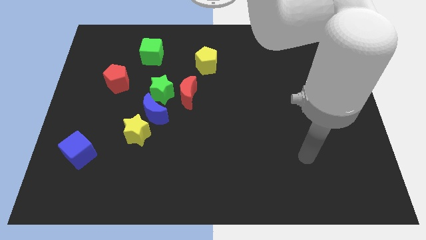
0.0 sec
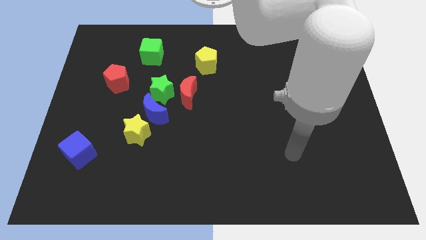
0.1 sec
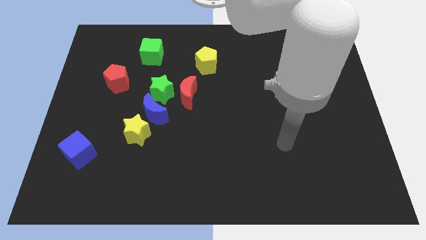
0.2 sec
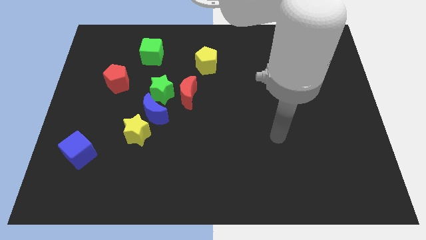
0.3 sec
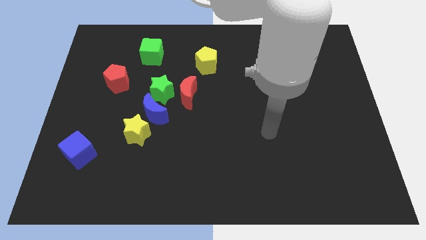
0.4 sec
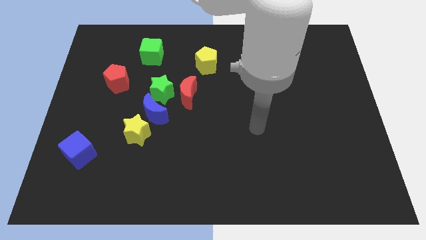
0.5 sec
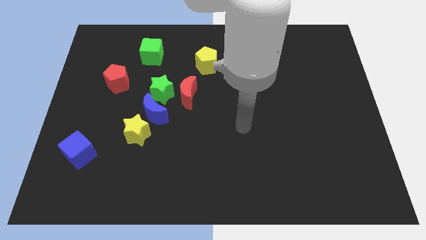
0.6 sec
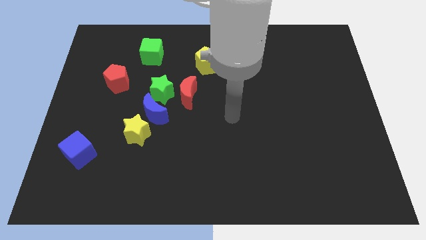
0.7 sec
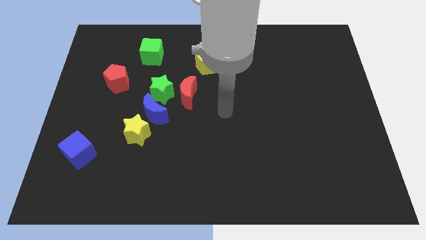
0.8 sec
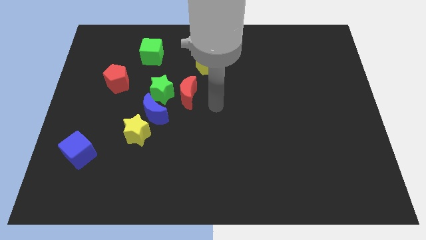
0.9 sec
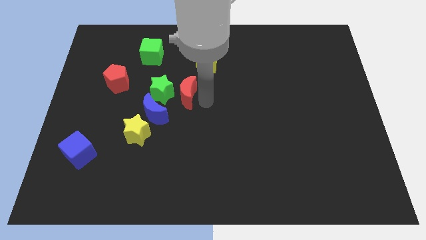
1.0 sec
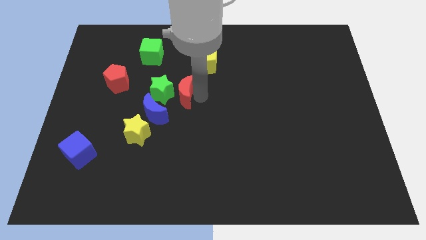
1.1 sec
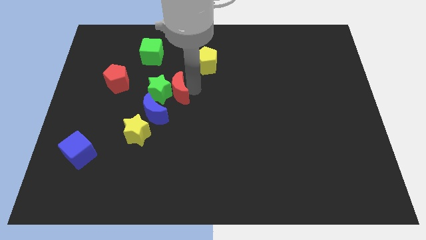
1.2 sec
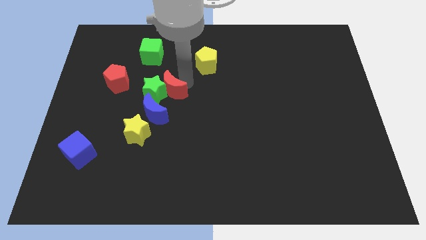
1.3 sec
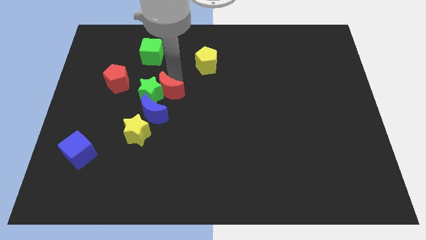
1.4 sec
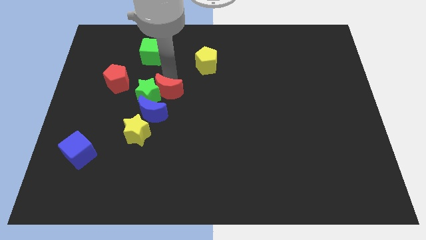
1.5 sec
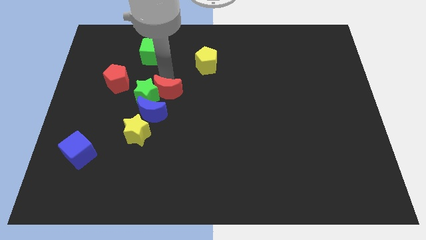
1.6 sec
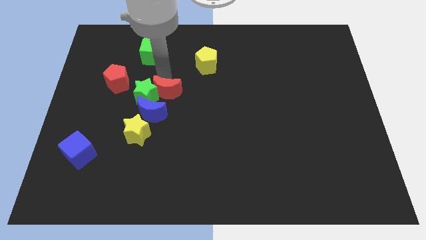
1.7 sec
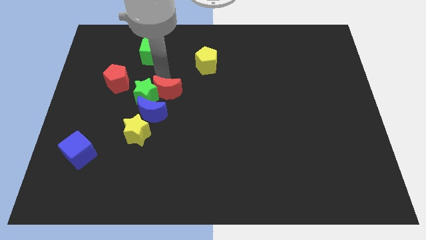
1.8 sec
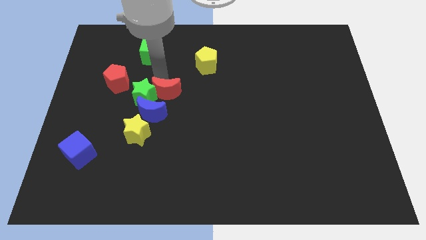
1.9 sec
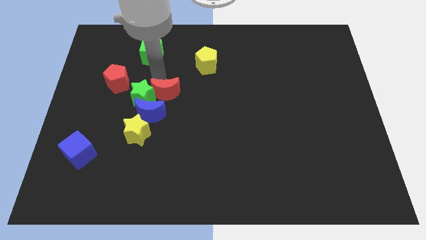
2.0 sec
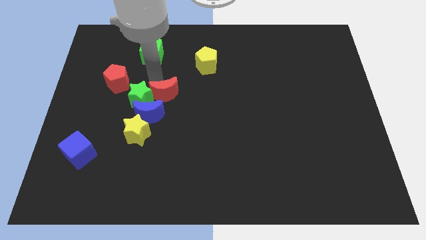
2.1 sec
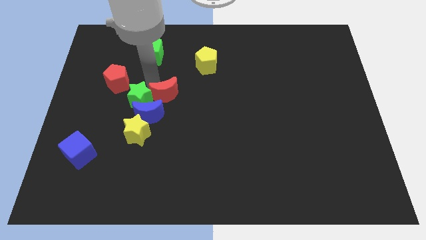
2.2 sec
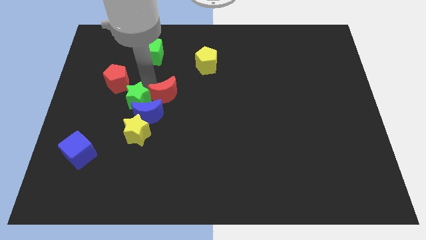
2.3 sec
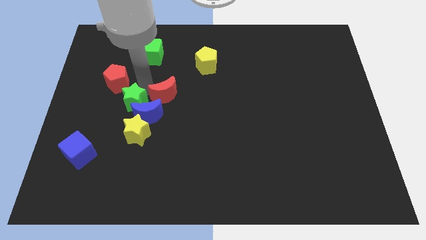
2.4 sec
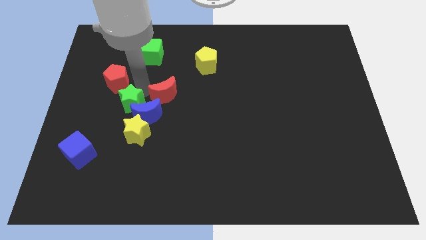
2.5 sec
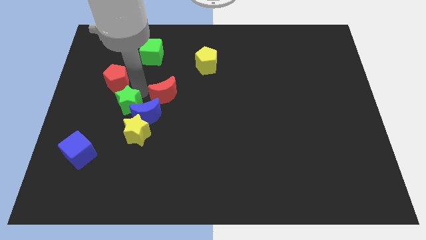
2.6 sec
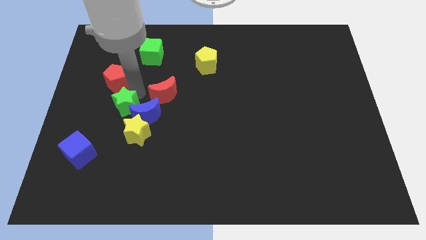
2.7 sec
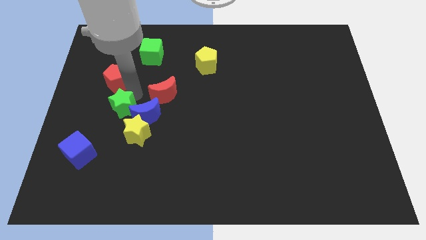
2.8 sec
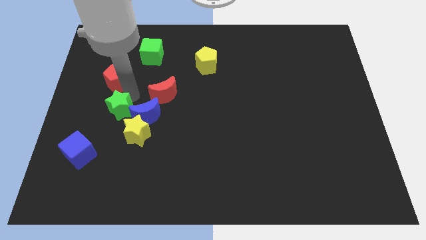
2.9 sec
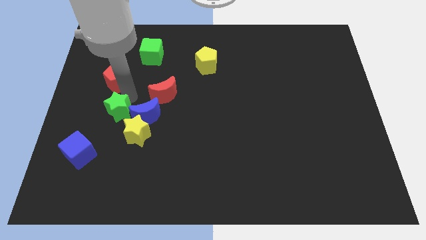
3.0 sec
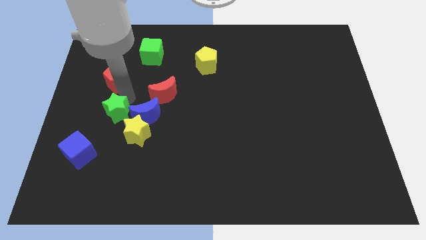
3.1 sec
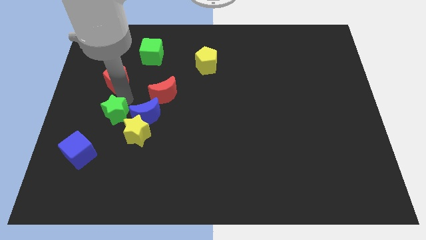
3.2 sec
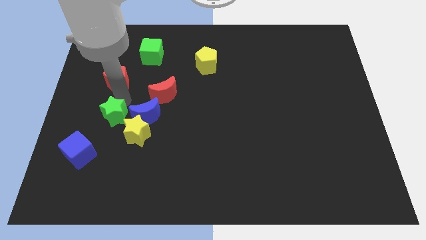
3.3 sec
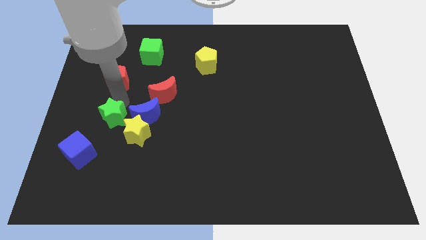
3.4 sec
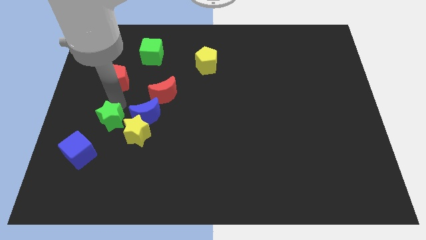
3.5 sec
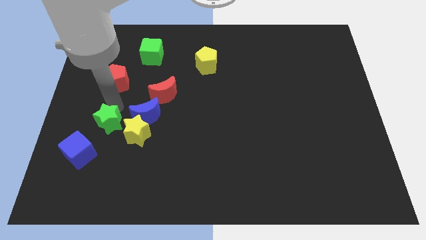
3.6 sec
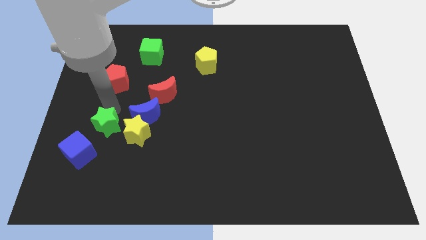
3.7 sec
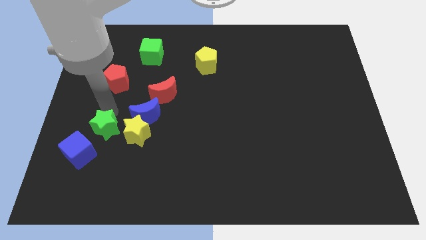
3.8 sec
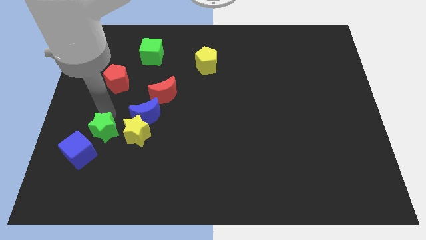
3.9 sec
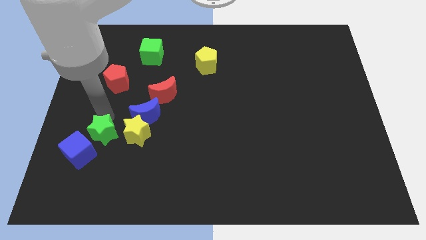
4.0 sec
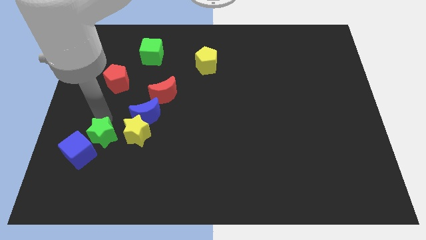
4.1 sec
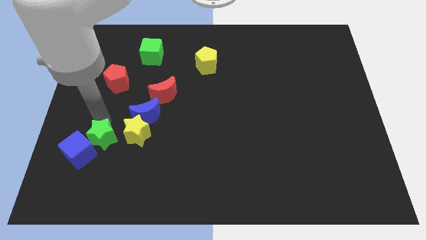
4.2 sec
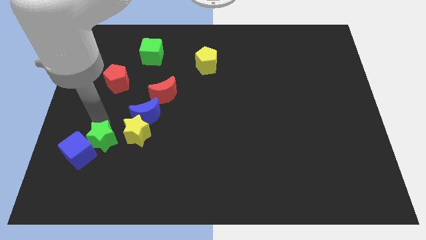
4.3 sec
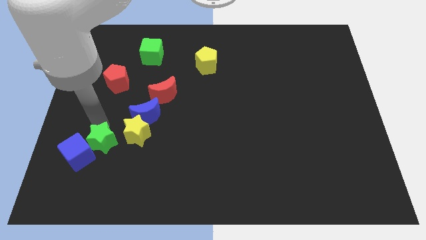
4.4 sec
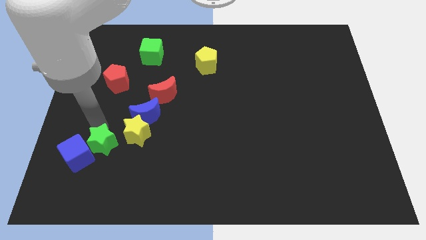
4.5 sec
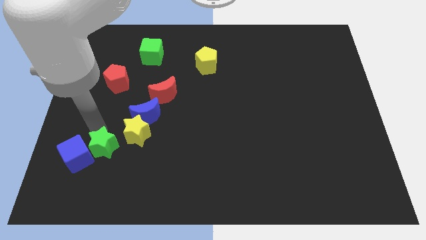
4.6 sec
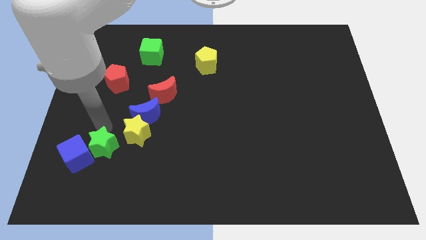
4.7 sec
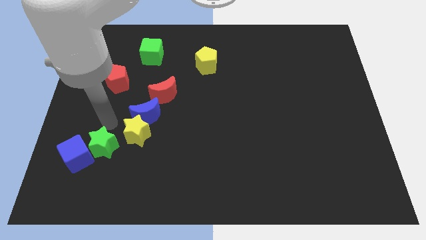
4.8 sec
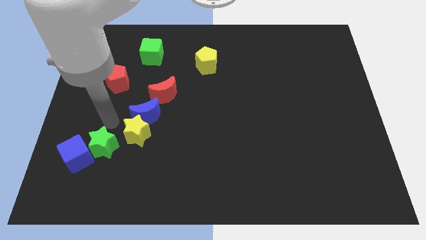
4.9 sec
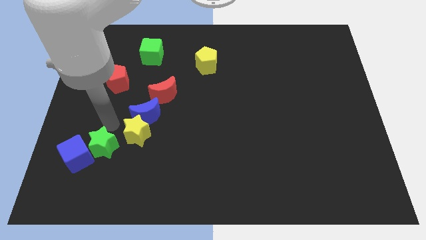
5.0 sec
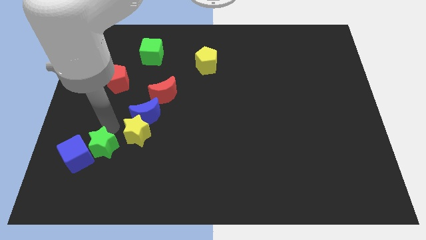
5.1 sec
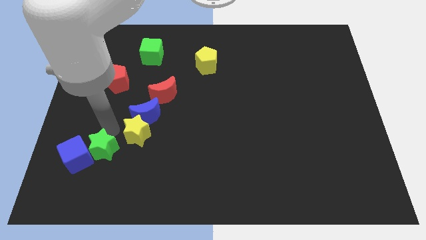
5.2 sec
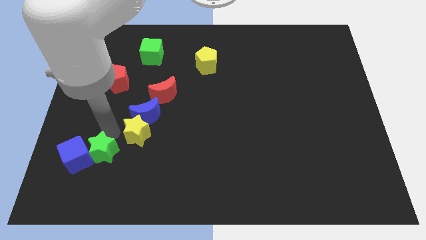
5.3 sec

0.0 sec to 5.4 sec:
slide the green star to the bottom right of the blue cube

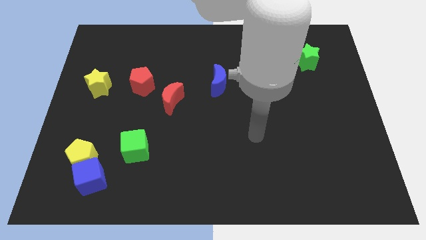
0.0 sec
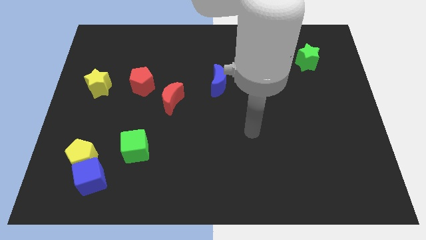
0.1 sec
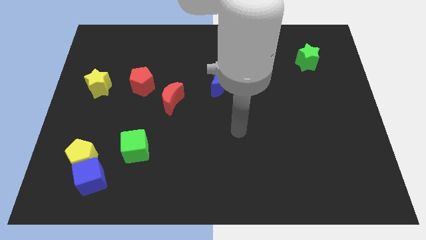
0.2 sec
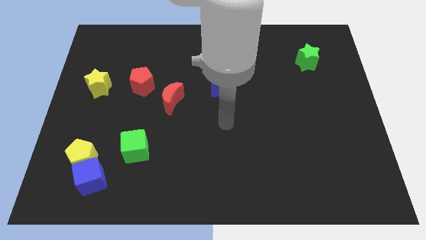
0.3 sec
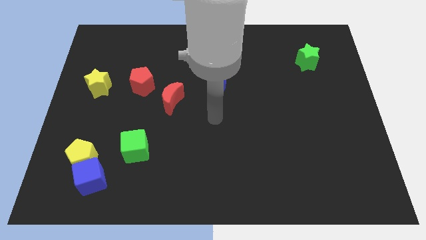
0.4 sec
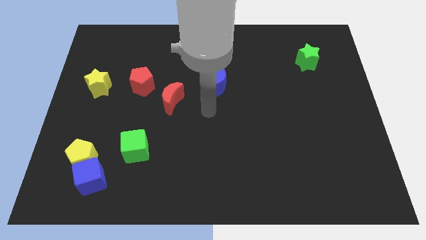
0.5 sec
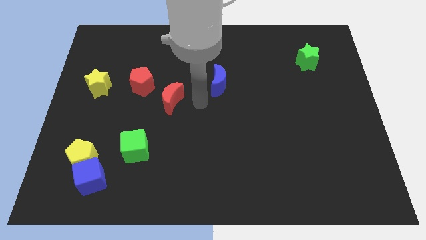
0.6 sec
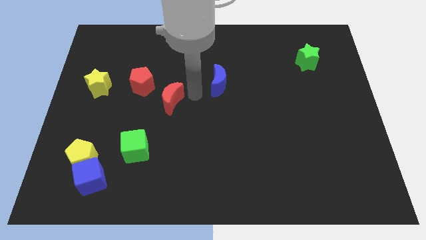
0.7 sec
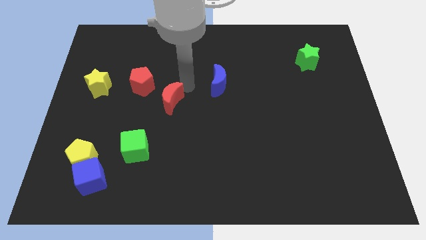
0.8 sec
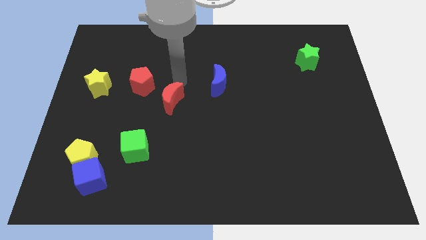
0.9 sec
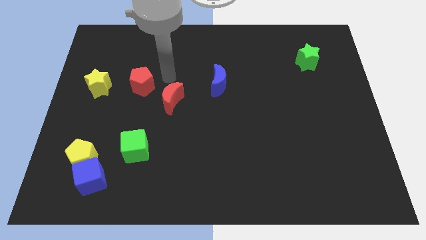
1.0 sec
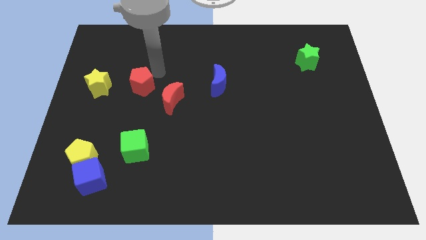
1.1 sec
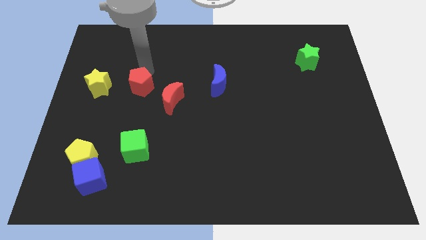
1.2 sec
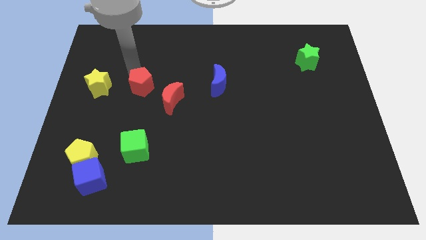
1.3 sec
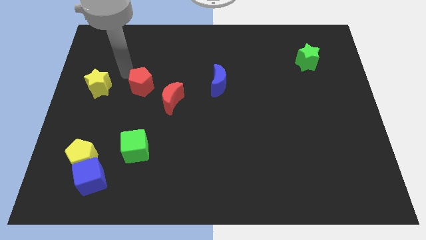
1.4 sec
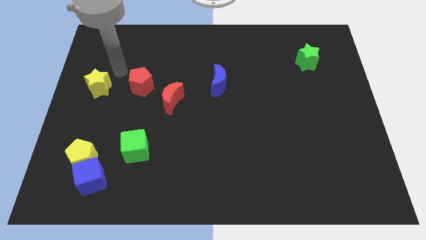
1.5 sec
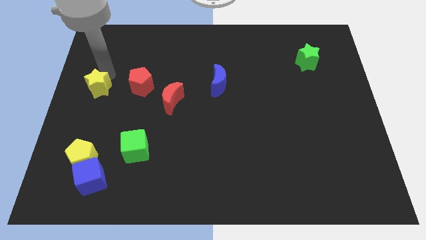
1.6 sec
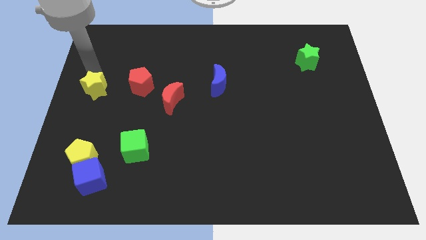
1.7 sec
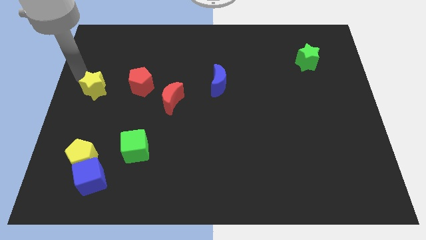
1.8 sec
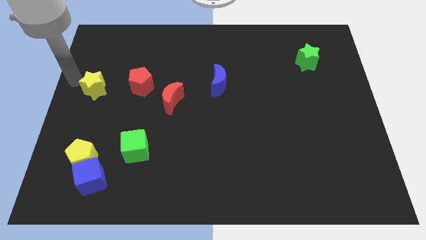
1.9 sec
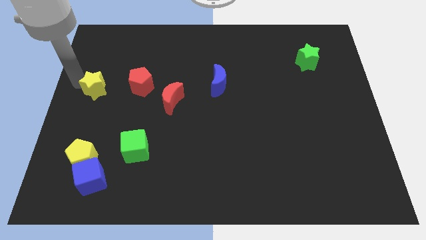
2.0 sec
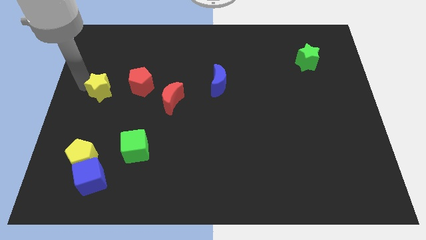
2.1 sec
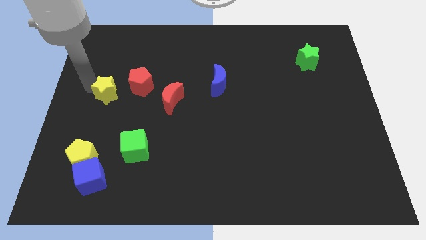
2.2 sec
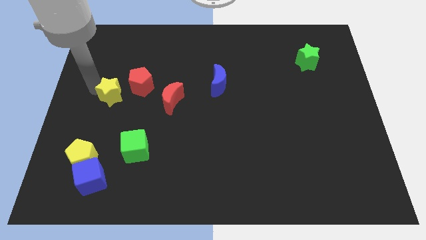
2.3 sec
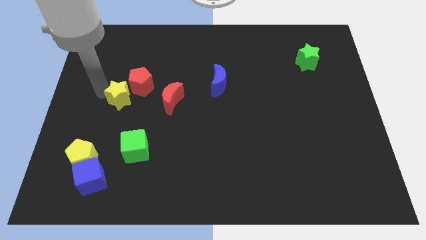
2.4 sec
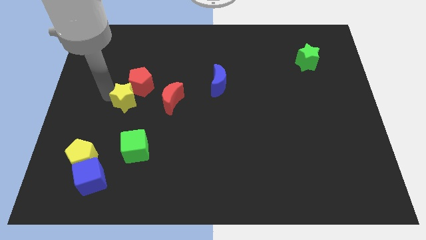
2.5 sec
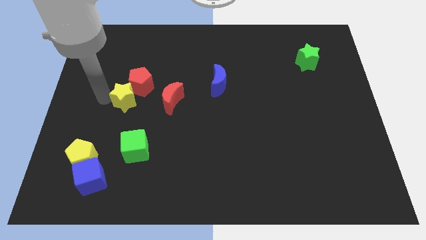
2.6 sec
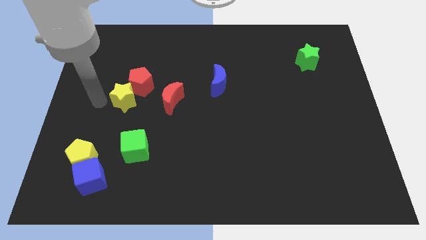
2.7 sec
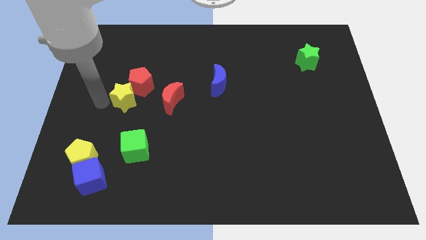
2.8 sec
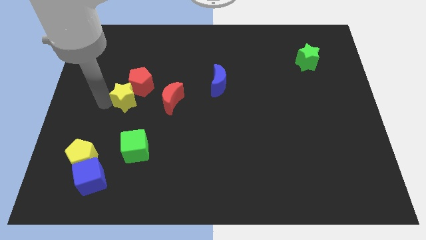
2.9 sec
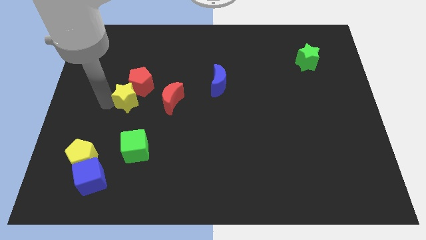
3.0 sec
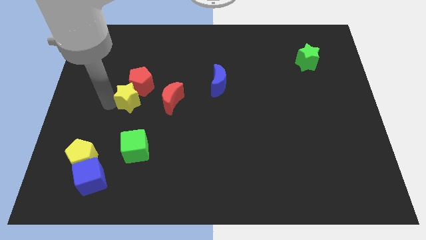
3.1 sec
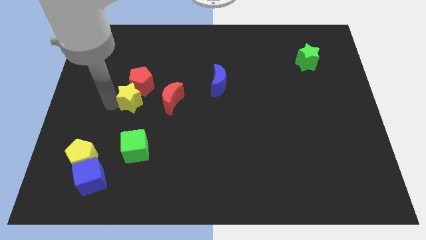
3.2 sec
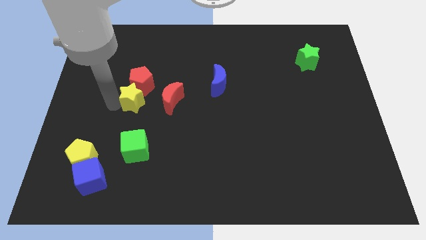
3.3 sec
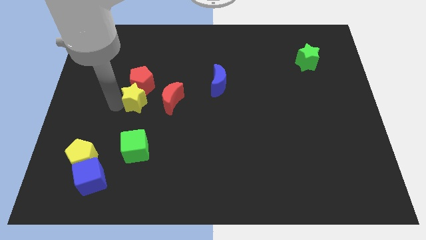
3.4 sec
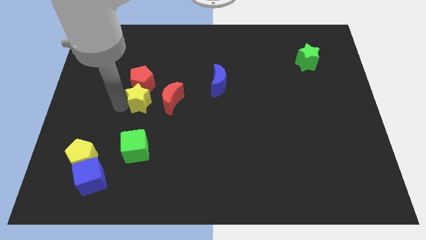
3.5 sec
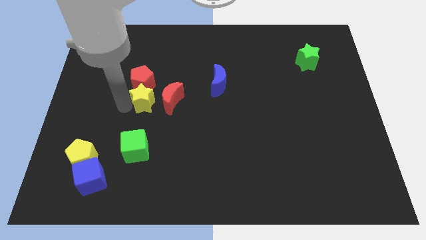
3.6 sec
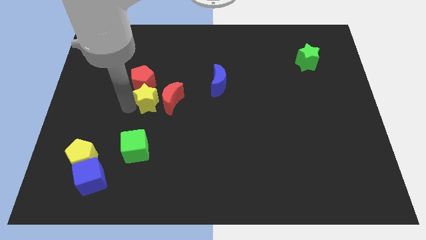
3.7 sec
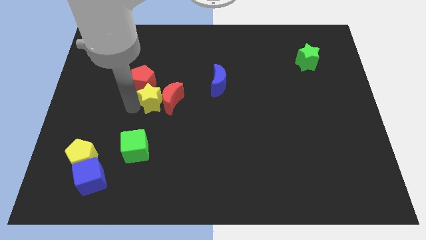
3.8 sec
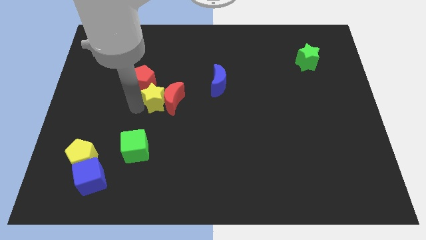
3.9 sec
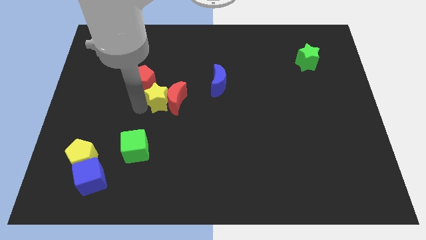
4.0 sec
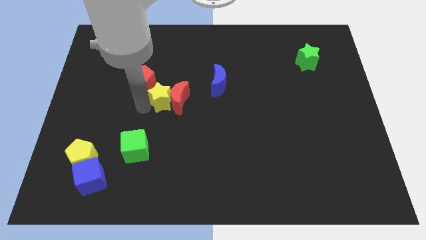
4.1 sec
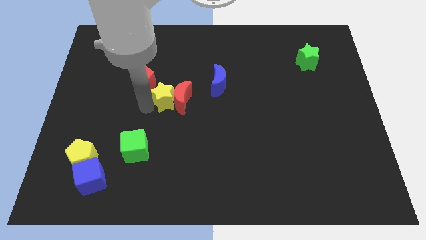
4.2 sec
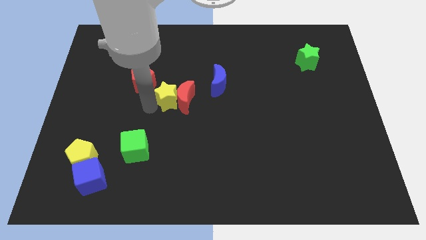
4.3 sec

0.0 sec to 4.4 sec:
put the yellow star to the left of the blue moon
